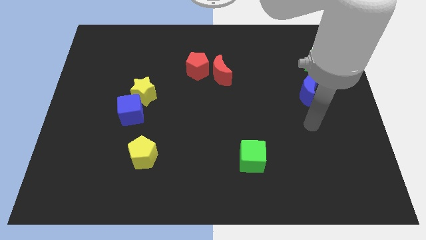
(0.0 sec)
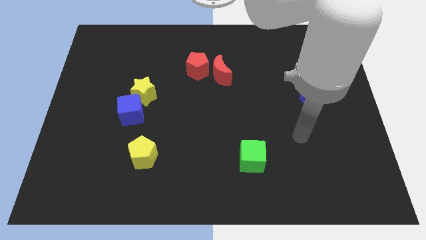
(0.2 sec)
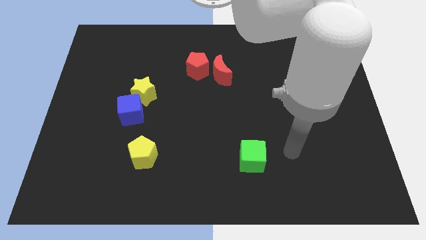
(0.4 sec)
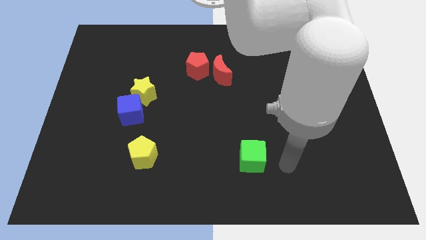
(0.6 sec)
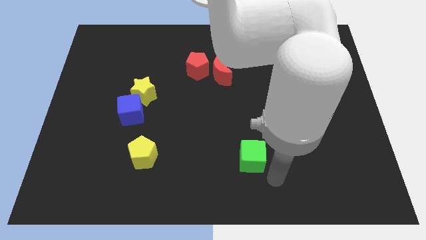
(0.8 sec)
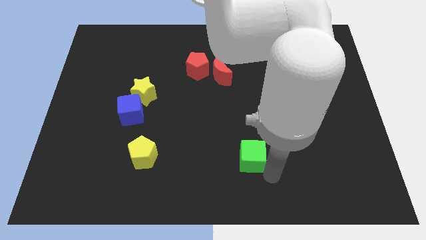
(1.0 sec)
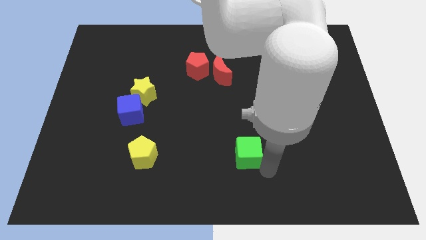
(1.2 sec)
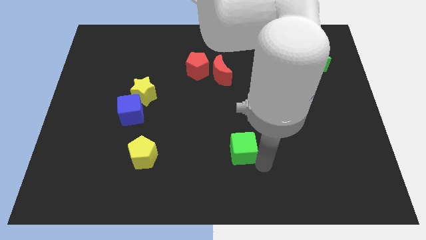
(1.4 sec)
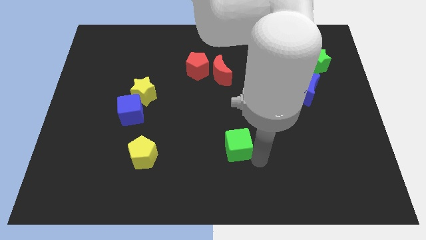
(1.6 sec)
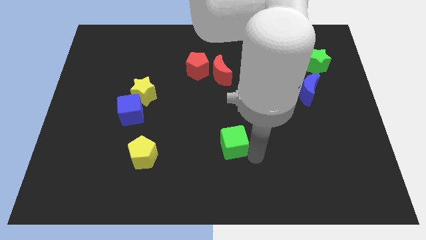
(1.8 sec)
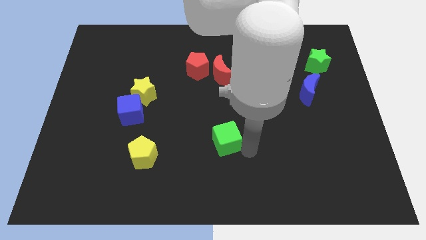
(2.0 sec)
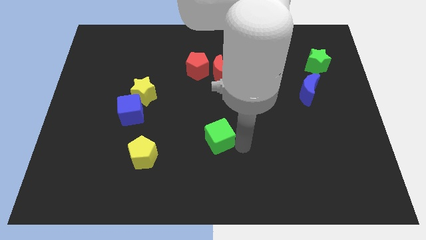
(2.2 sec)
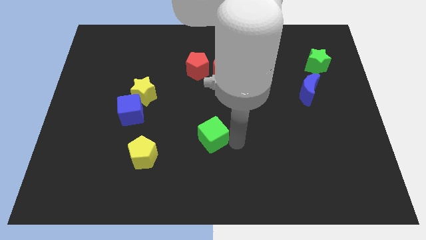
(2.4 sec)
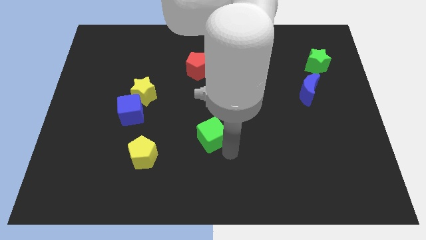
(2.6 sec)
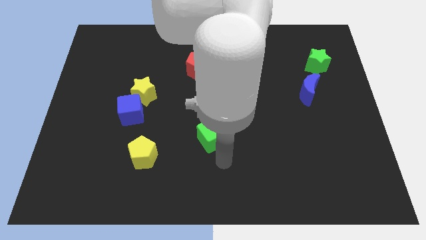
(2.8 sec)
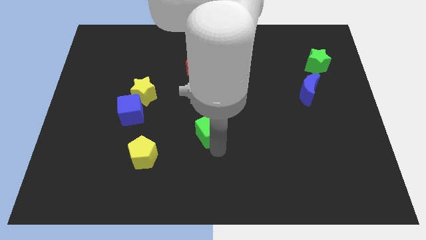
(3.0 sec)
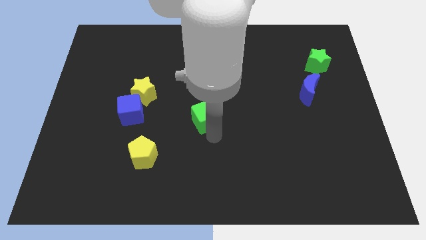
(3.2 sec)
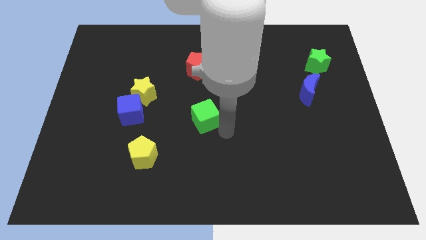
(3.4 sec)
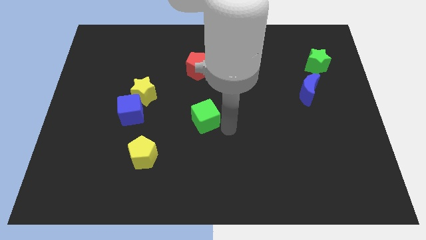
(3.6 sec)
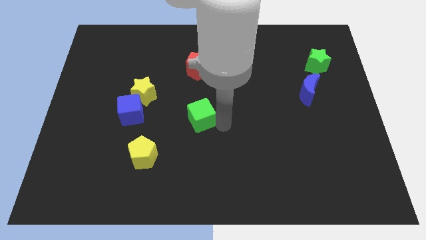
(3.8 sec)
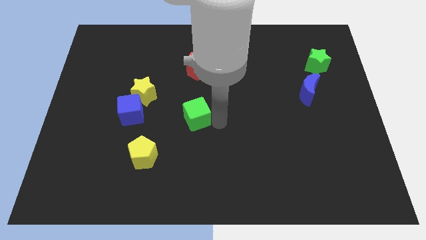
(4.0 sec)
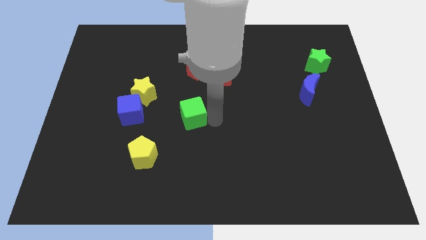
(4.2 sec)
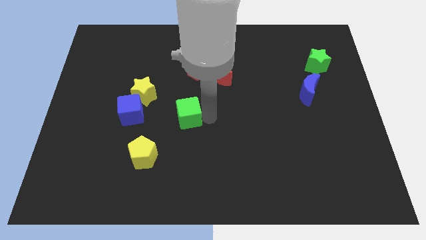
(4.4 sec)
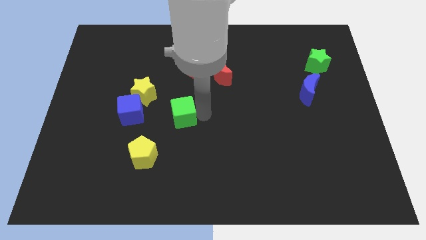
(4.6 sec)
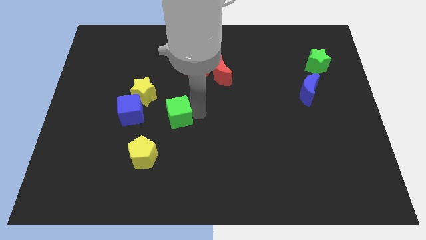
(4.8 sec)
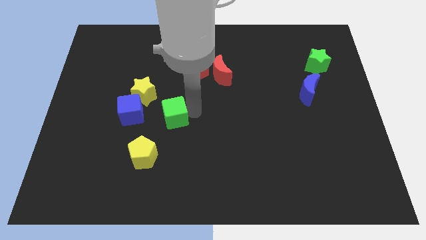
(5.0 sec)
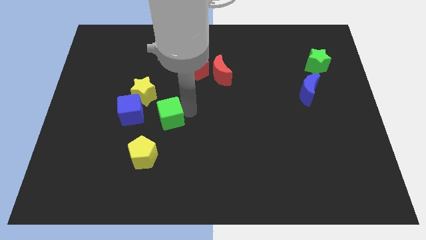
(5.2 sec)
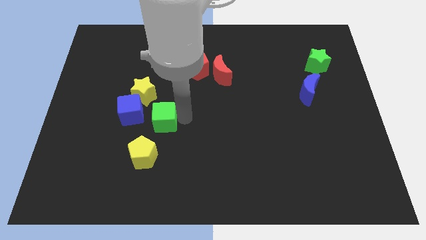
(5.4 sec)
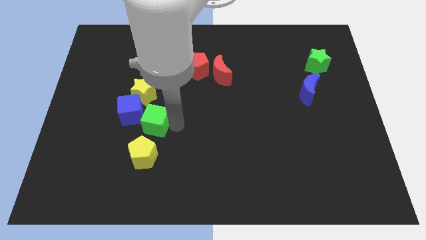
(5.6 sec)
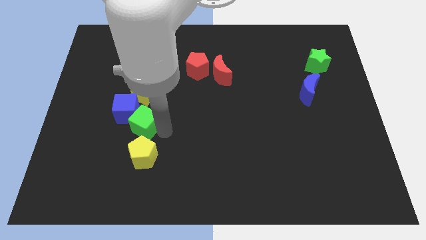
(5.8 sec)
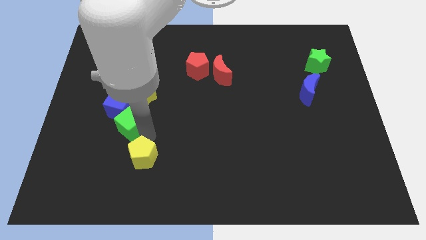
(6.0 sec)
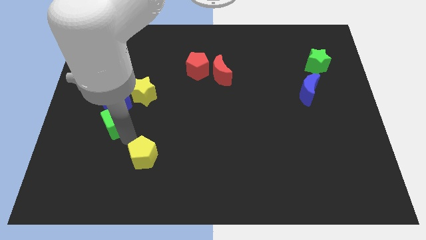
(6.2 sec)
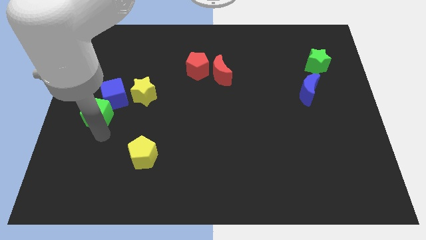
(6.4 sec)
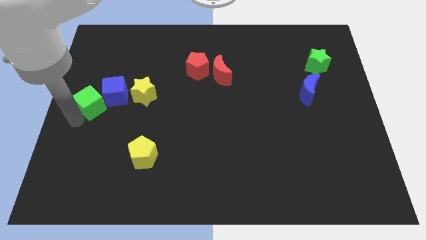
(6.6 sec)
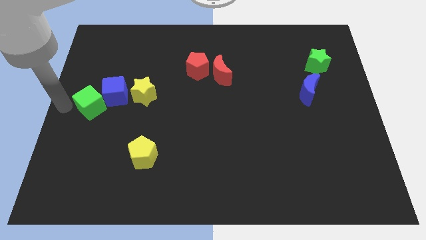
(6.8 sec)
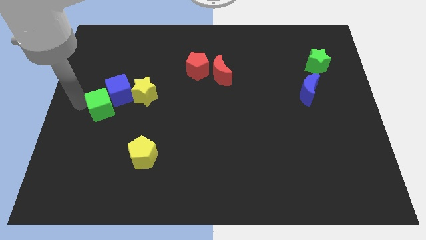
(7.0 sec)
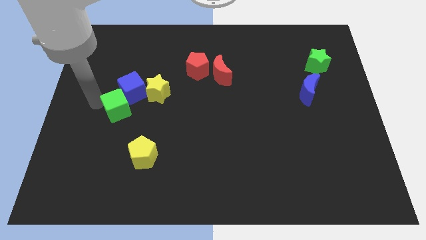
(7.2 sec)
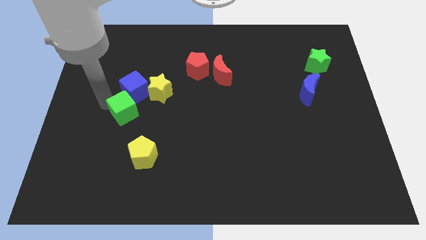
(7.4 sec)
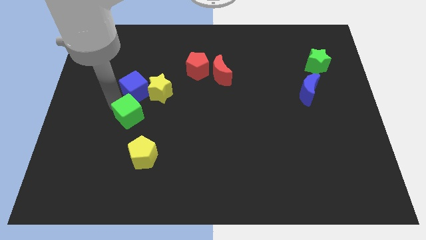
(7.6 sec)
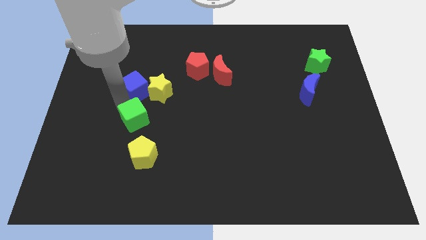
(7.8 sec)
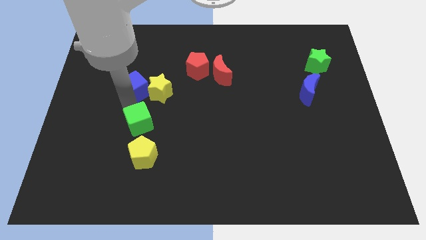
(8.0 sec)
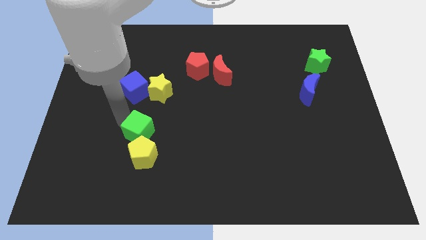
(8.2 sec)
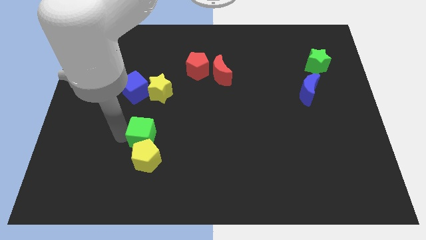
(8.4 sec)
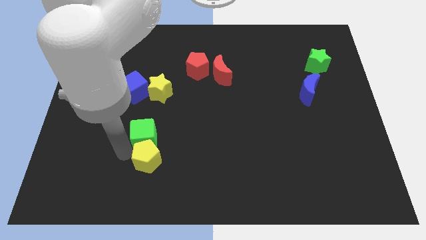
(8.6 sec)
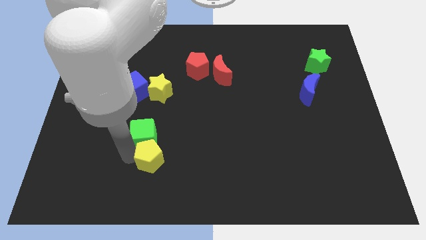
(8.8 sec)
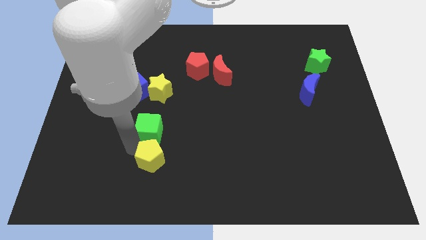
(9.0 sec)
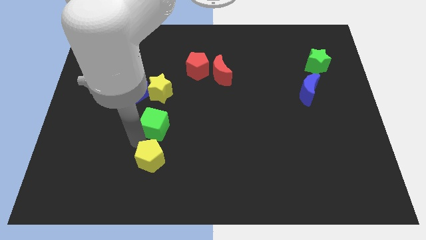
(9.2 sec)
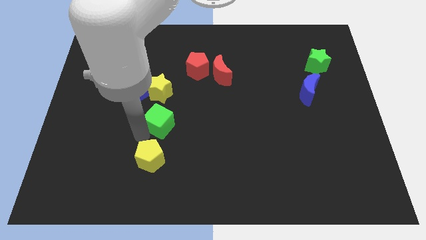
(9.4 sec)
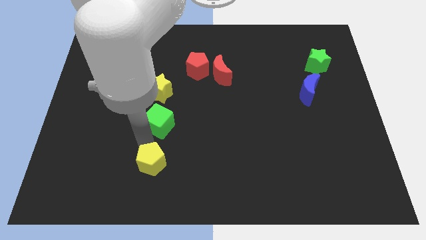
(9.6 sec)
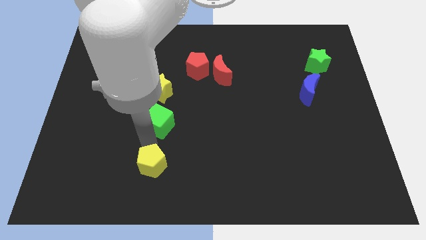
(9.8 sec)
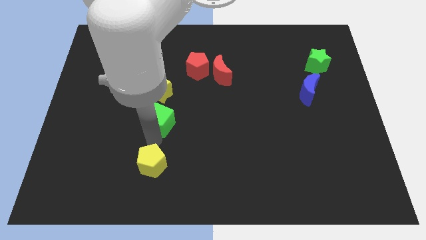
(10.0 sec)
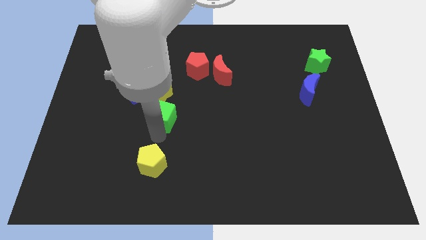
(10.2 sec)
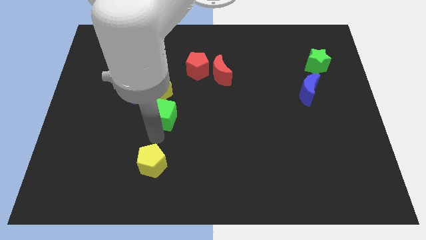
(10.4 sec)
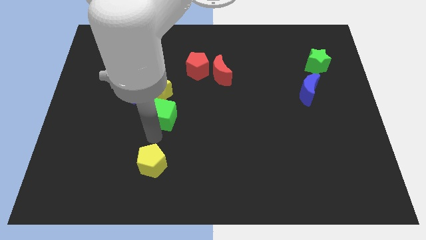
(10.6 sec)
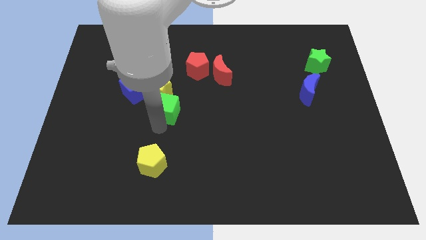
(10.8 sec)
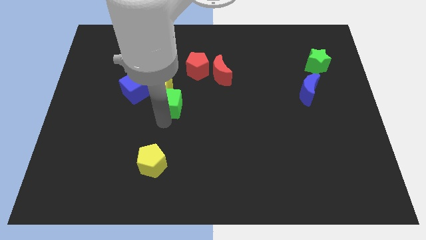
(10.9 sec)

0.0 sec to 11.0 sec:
move the green cube next to the yellow star

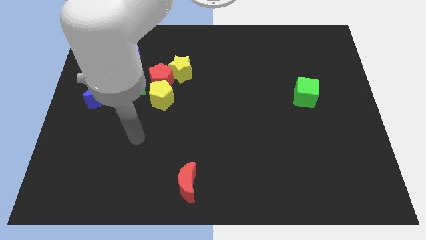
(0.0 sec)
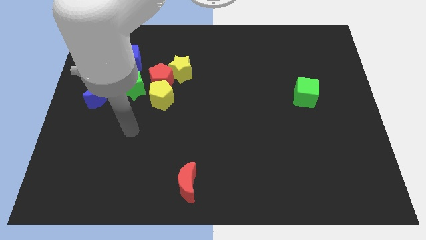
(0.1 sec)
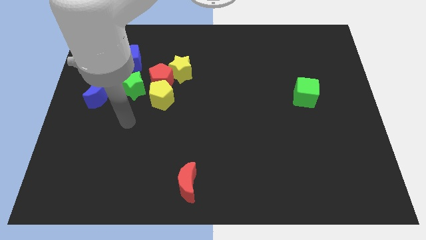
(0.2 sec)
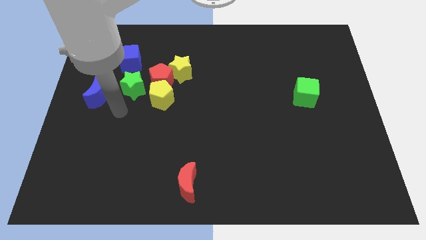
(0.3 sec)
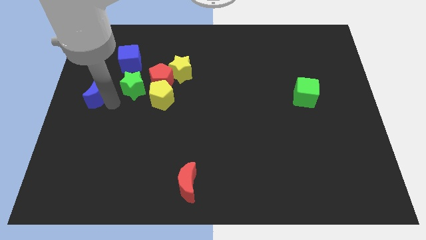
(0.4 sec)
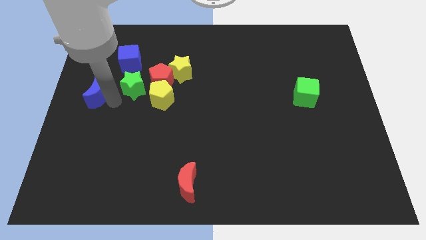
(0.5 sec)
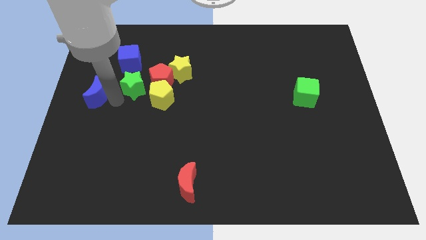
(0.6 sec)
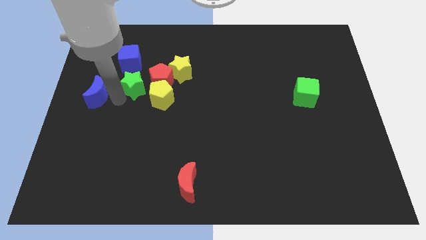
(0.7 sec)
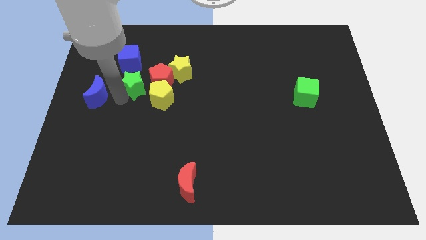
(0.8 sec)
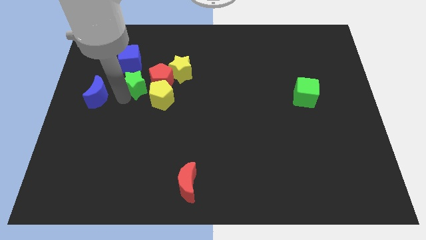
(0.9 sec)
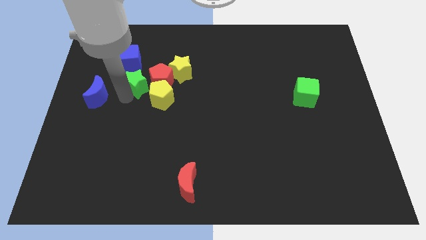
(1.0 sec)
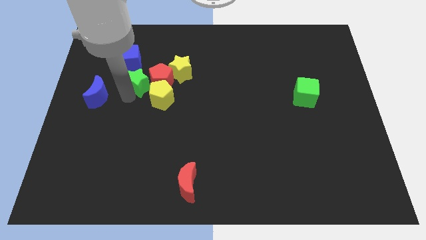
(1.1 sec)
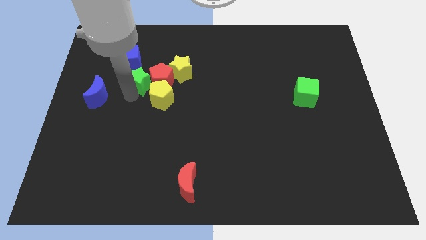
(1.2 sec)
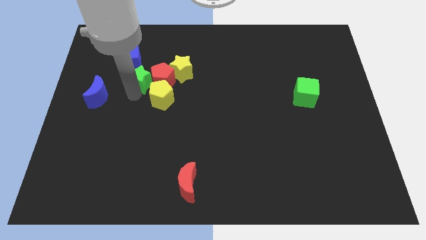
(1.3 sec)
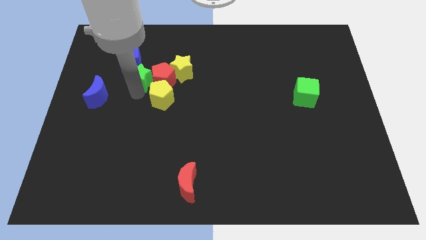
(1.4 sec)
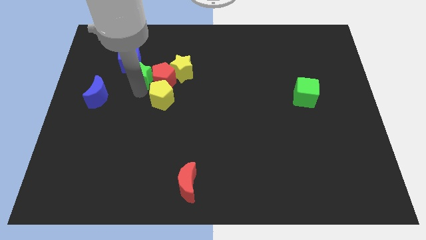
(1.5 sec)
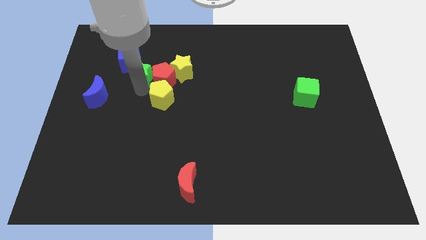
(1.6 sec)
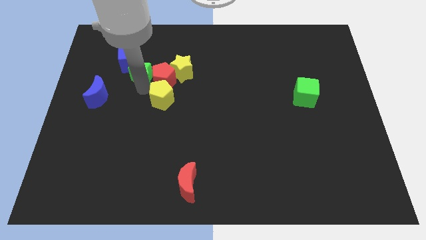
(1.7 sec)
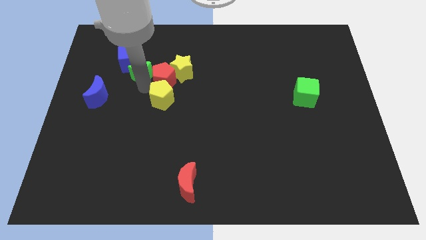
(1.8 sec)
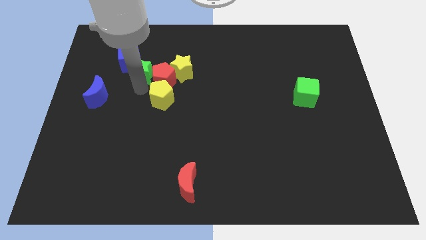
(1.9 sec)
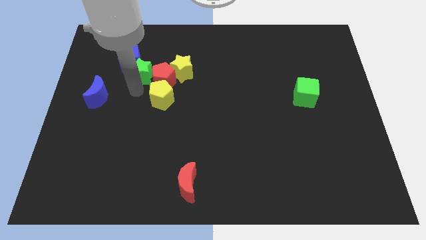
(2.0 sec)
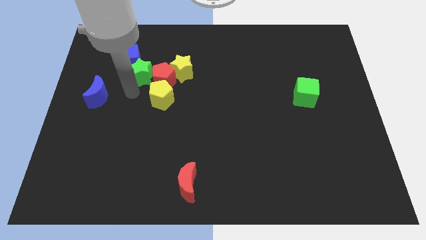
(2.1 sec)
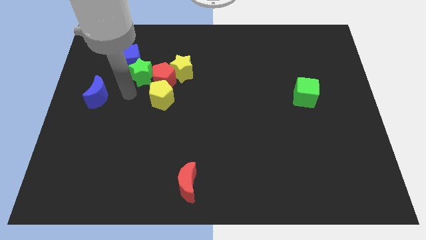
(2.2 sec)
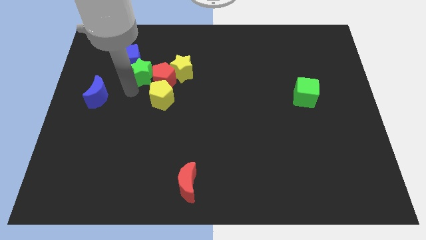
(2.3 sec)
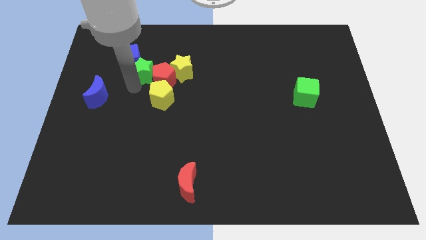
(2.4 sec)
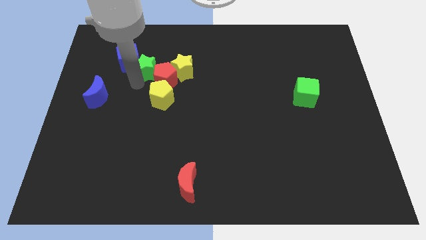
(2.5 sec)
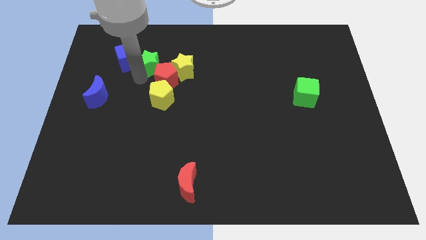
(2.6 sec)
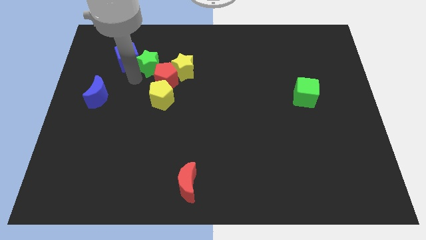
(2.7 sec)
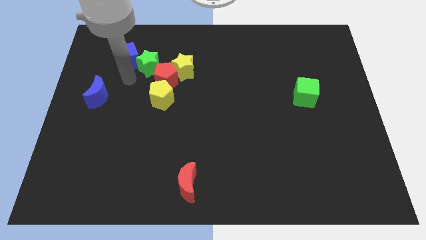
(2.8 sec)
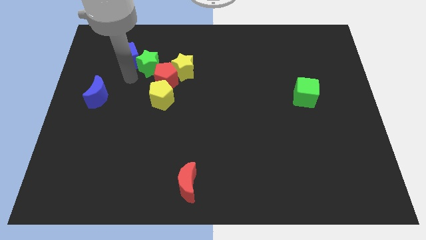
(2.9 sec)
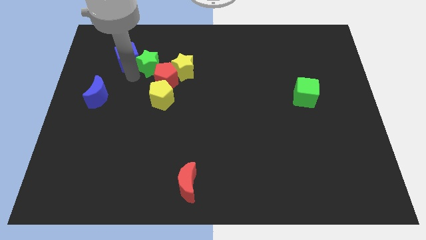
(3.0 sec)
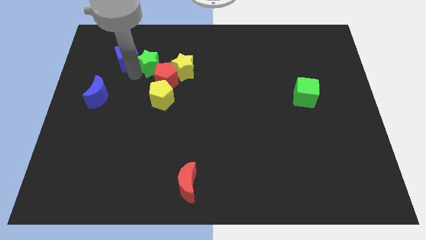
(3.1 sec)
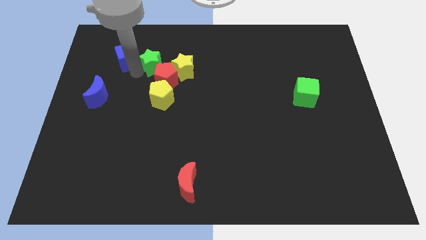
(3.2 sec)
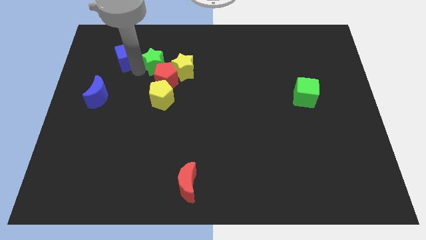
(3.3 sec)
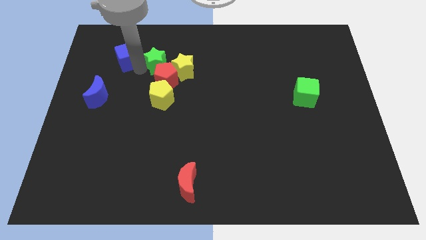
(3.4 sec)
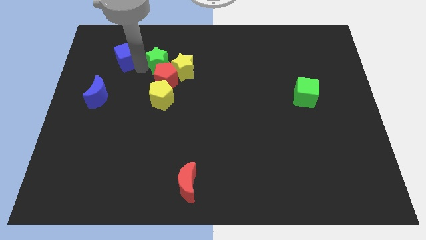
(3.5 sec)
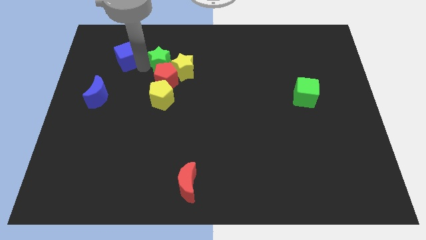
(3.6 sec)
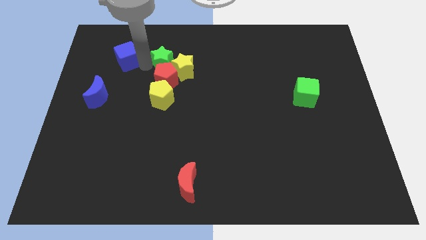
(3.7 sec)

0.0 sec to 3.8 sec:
push the green star towards the yellow star
